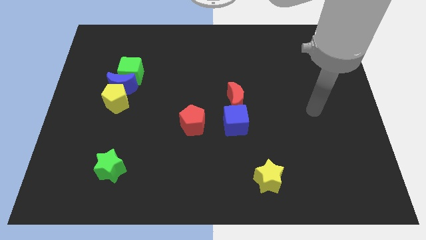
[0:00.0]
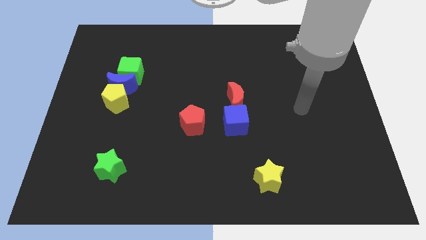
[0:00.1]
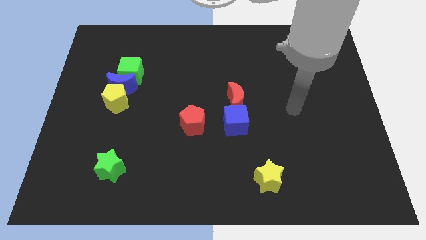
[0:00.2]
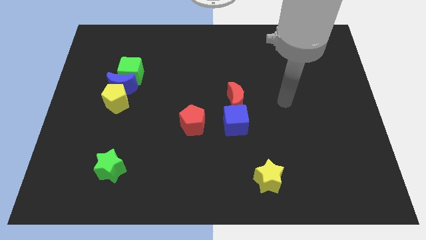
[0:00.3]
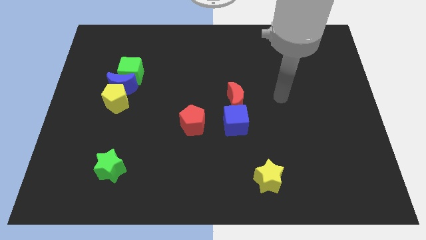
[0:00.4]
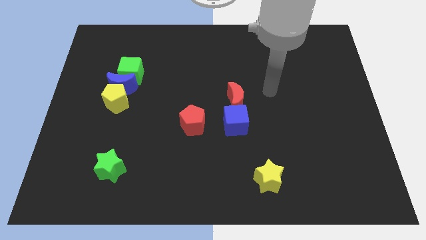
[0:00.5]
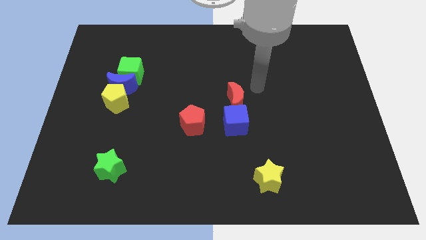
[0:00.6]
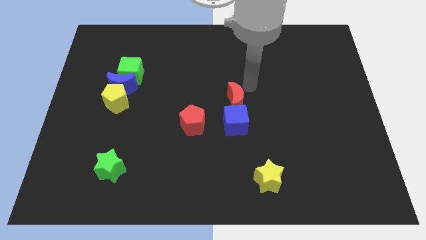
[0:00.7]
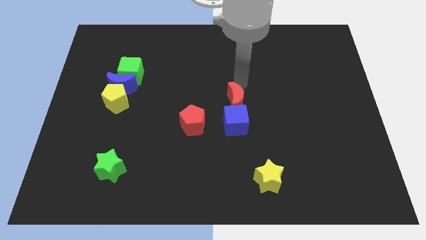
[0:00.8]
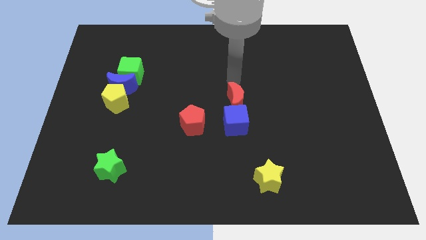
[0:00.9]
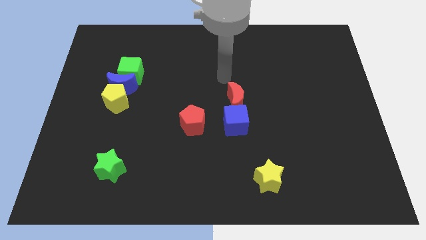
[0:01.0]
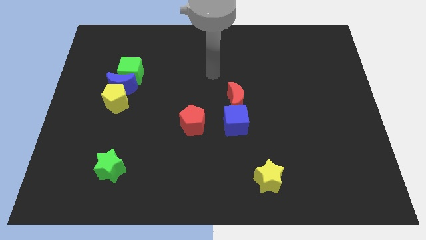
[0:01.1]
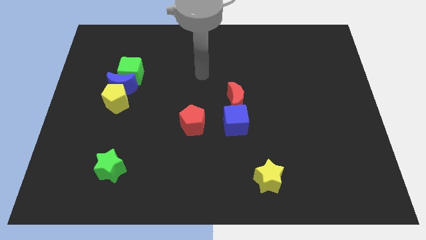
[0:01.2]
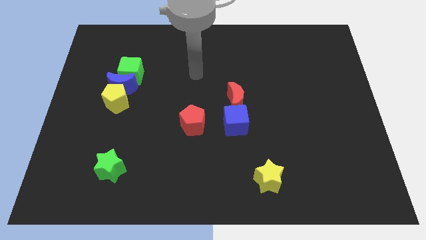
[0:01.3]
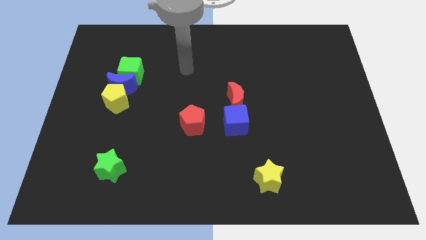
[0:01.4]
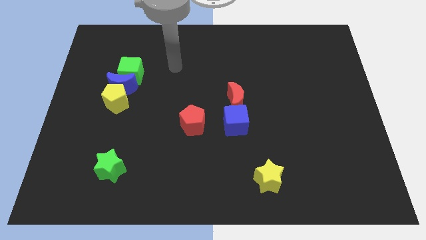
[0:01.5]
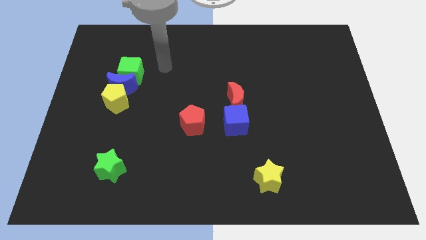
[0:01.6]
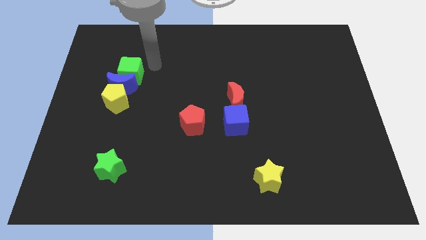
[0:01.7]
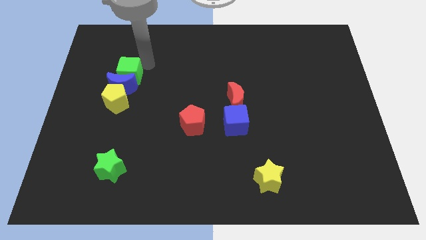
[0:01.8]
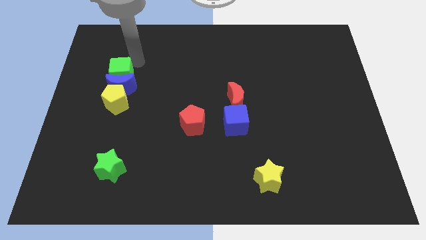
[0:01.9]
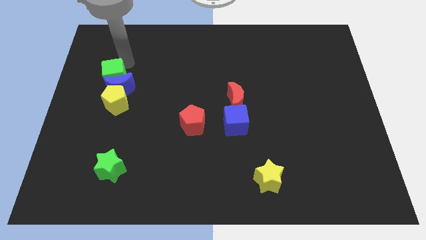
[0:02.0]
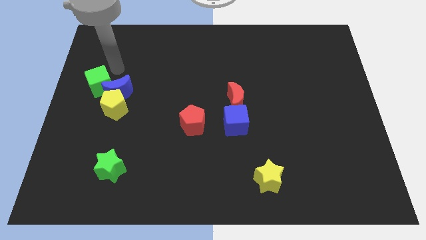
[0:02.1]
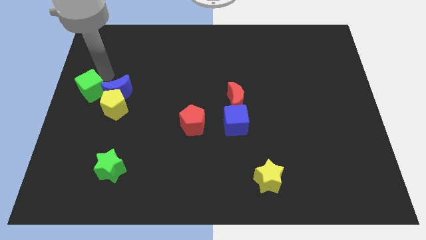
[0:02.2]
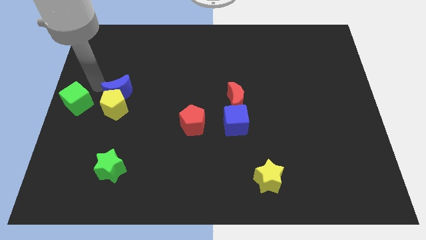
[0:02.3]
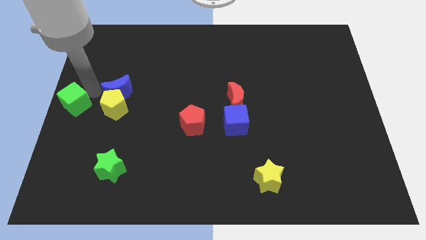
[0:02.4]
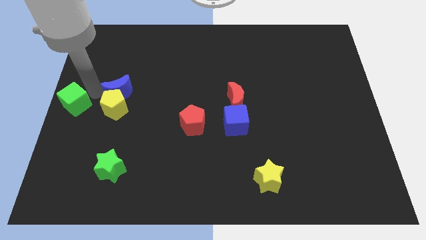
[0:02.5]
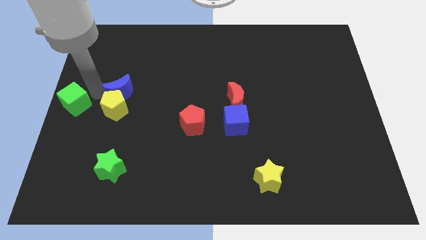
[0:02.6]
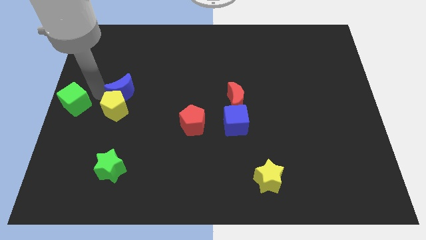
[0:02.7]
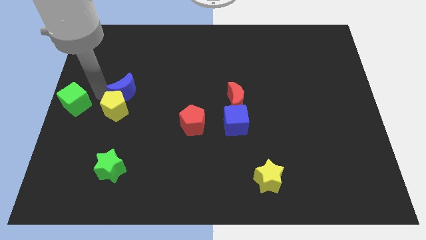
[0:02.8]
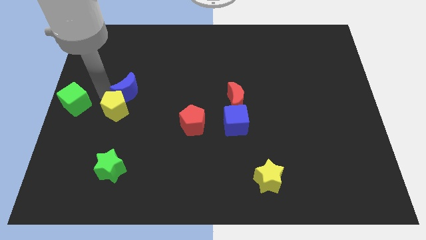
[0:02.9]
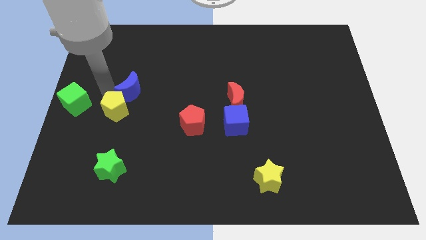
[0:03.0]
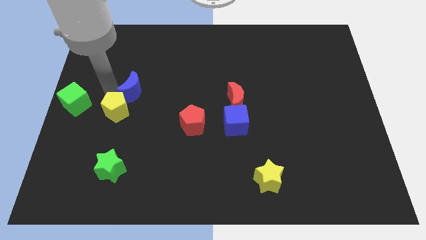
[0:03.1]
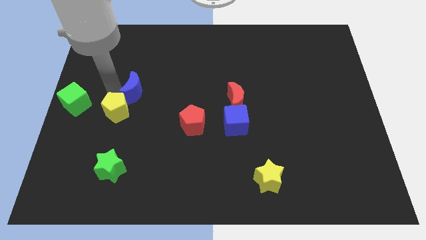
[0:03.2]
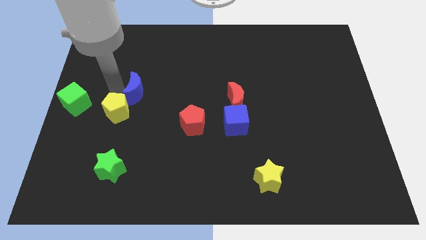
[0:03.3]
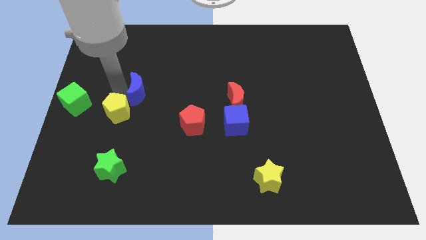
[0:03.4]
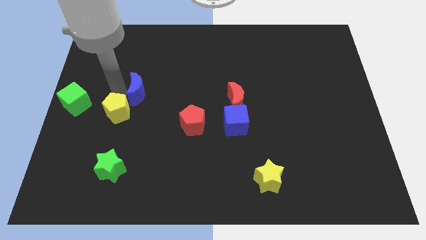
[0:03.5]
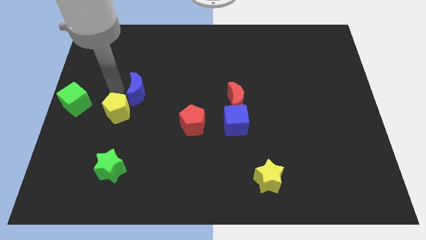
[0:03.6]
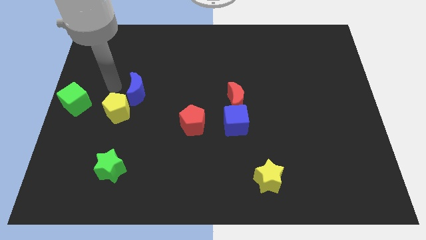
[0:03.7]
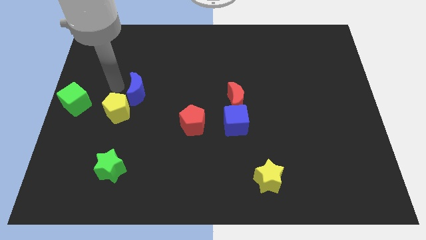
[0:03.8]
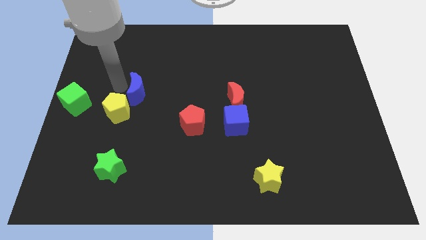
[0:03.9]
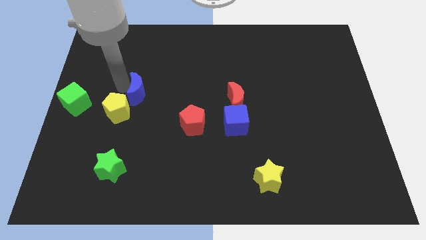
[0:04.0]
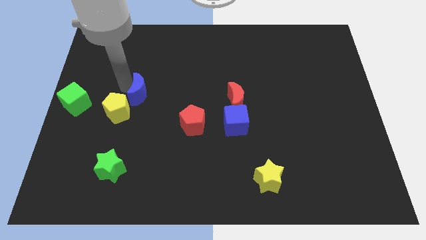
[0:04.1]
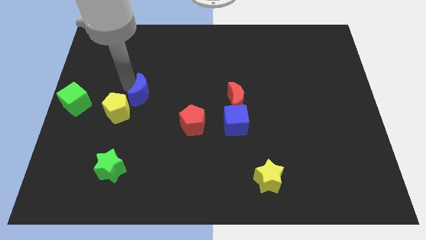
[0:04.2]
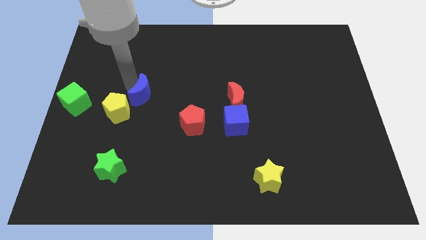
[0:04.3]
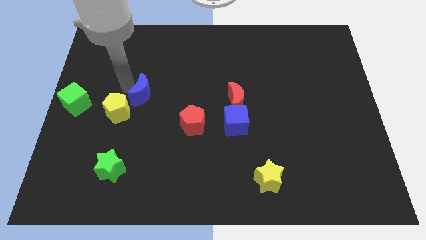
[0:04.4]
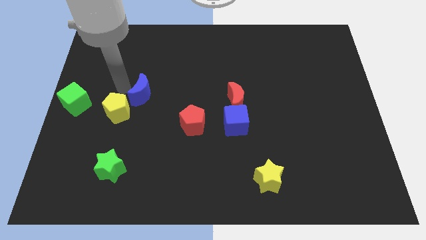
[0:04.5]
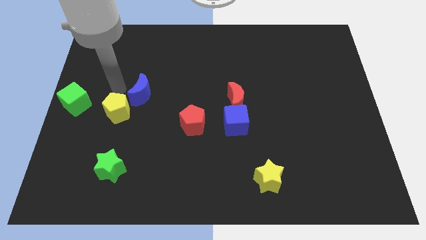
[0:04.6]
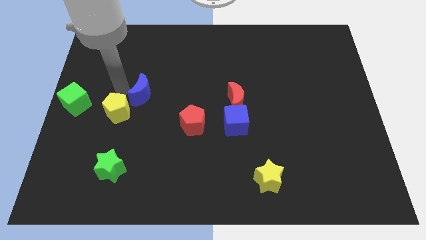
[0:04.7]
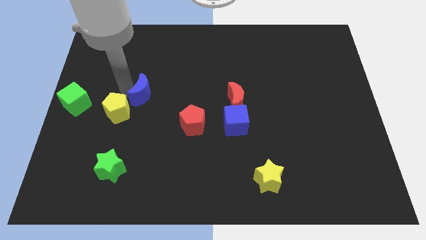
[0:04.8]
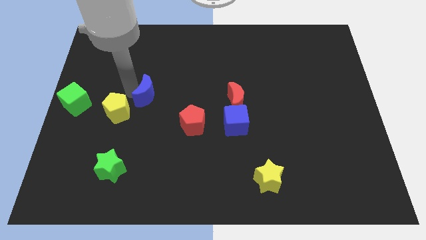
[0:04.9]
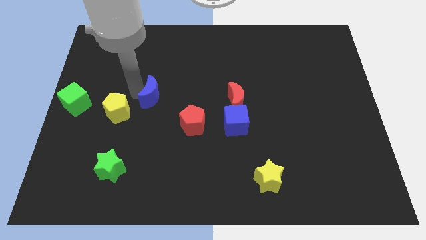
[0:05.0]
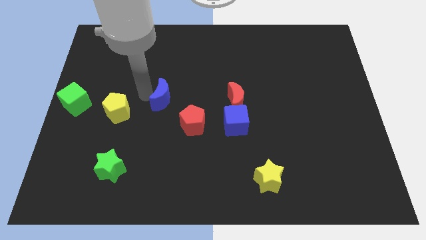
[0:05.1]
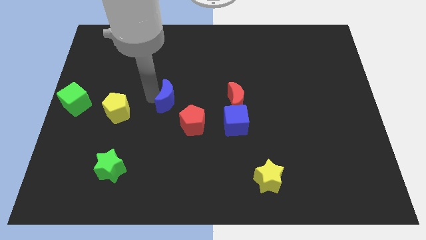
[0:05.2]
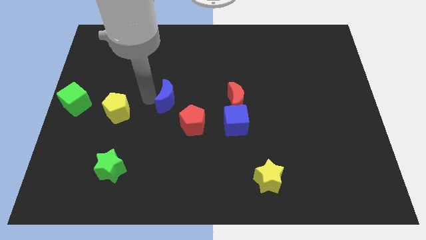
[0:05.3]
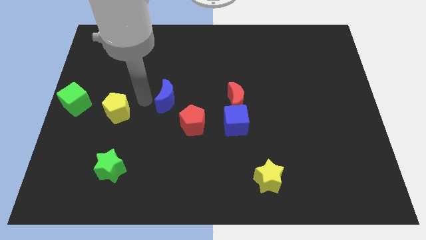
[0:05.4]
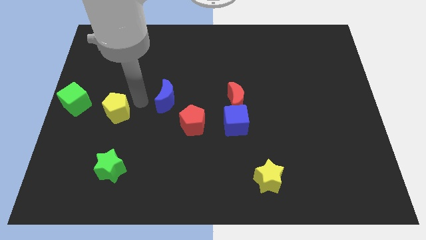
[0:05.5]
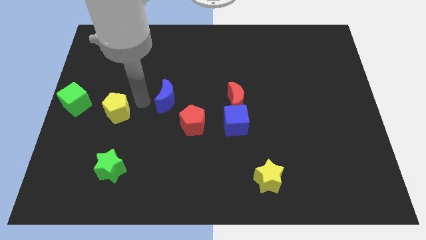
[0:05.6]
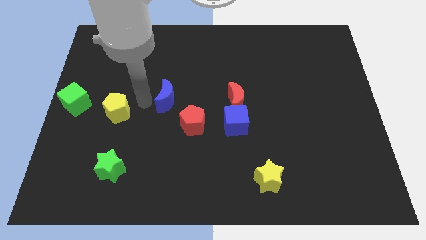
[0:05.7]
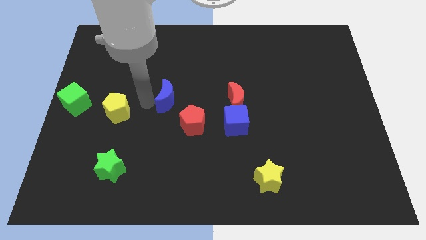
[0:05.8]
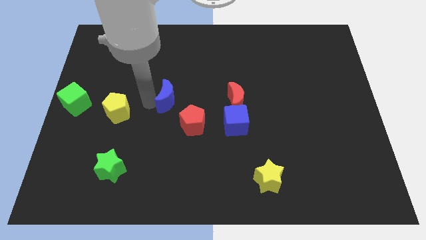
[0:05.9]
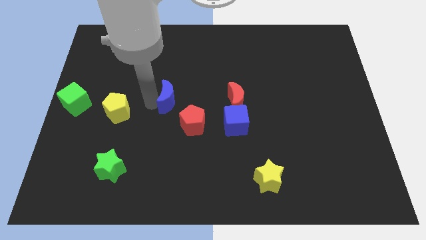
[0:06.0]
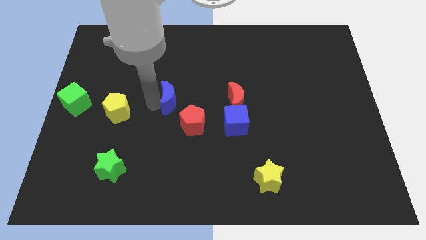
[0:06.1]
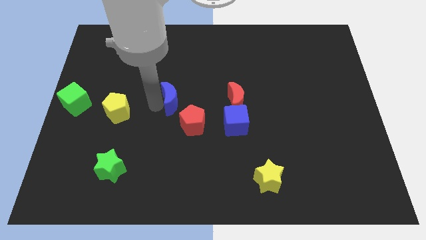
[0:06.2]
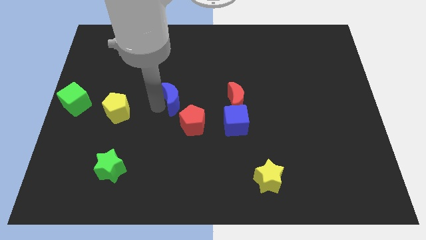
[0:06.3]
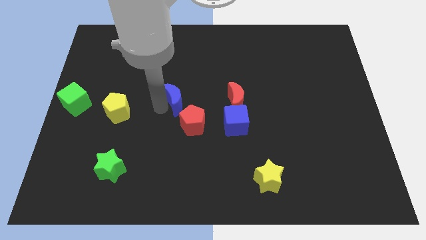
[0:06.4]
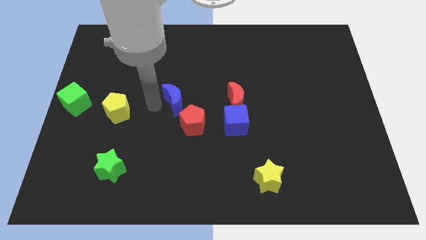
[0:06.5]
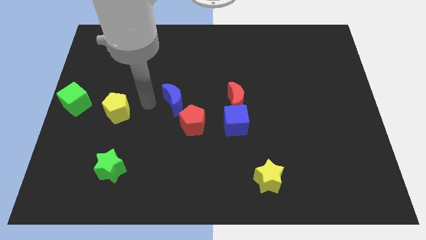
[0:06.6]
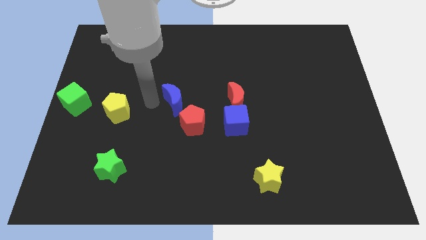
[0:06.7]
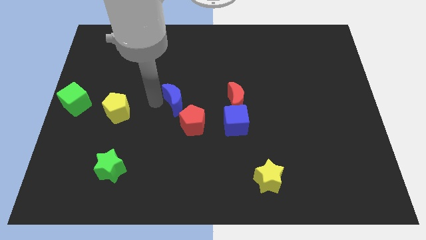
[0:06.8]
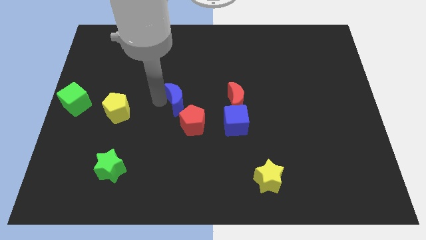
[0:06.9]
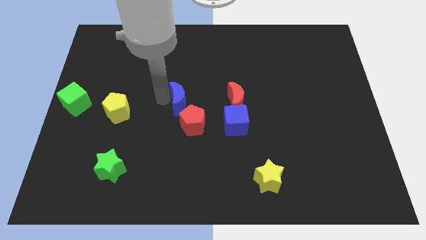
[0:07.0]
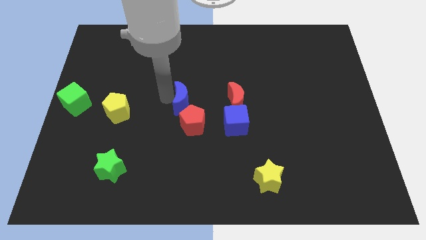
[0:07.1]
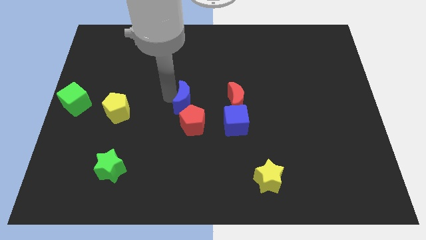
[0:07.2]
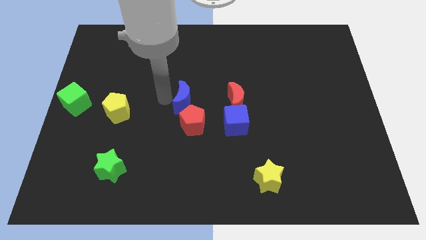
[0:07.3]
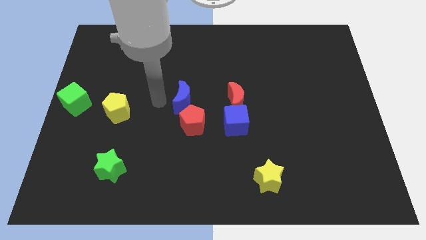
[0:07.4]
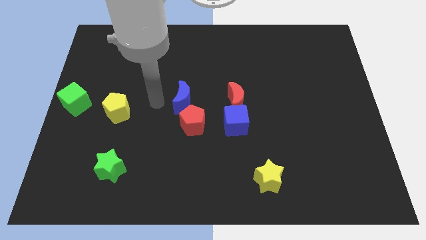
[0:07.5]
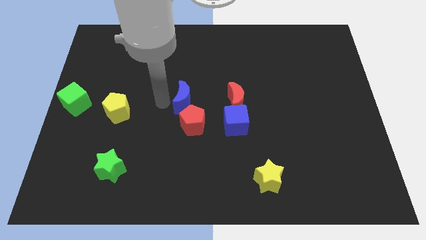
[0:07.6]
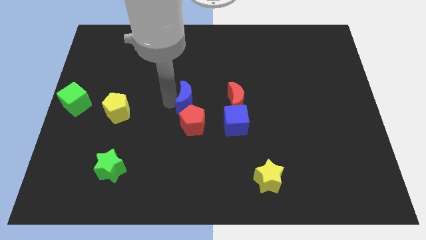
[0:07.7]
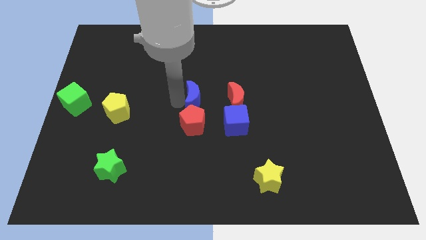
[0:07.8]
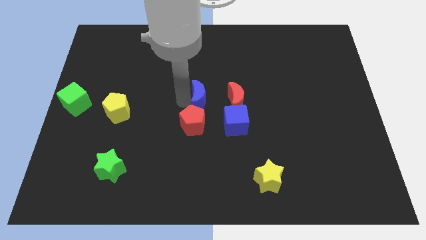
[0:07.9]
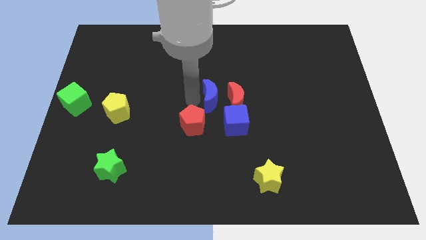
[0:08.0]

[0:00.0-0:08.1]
put the blue moon to the red moon
